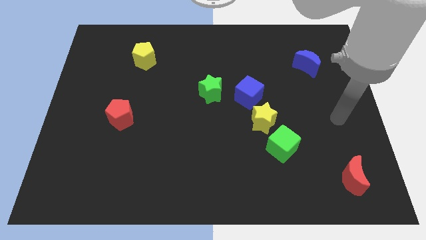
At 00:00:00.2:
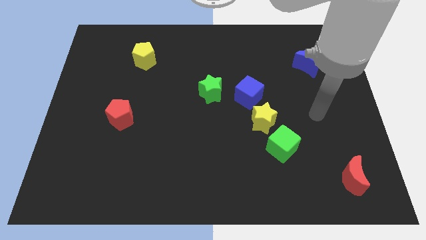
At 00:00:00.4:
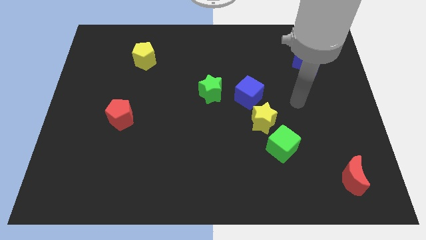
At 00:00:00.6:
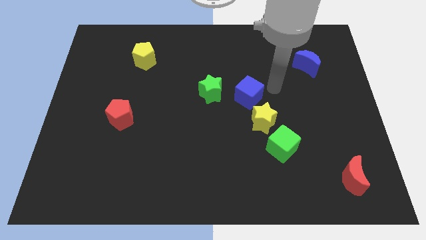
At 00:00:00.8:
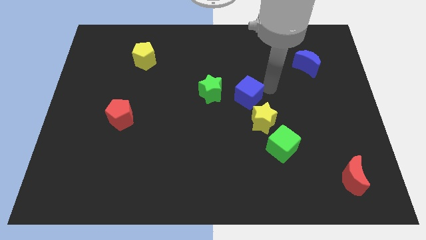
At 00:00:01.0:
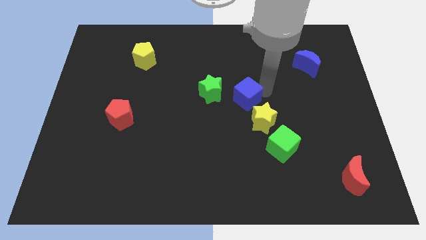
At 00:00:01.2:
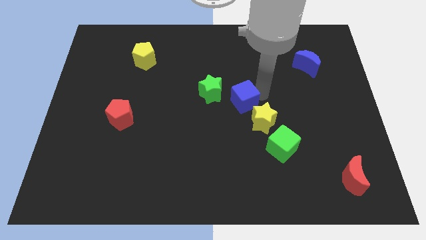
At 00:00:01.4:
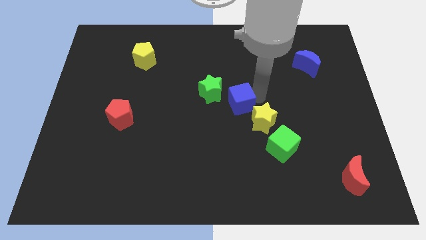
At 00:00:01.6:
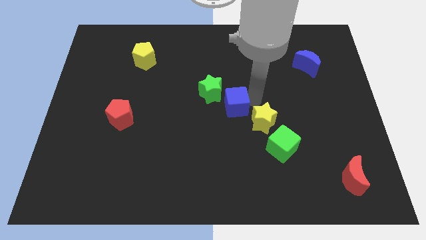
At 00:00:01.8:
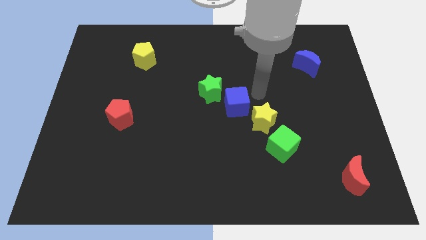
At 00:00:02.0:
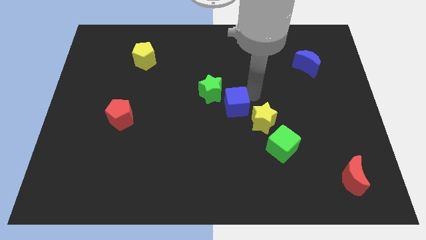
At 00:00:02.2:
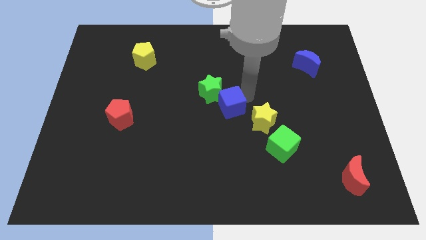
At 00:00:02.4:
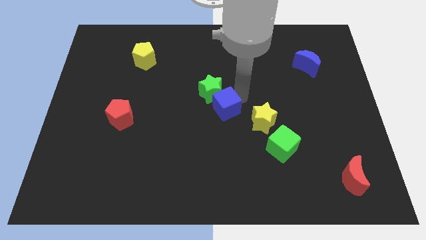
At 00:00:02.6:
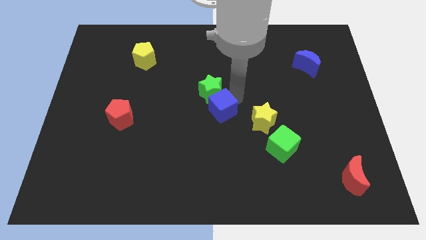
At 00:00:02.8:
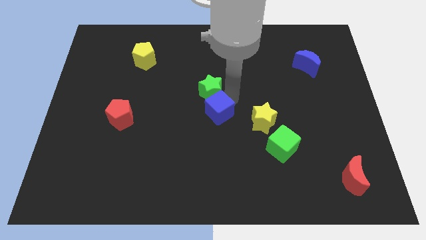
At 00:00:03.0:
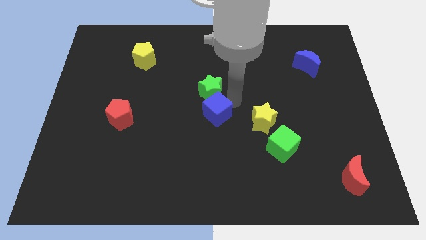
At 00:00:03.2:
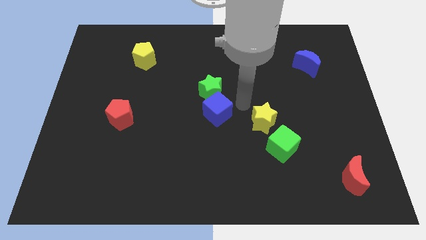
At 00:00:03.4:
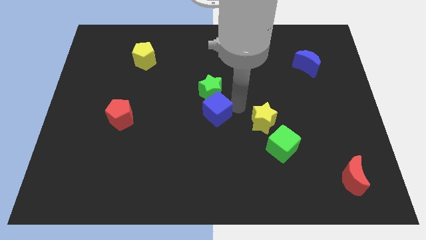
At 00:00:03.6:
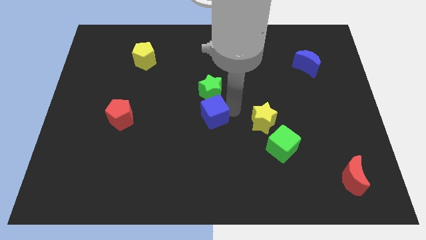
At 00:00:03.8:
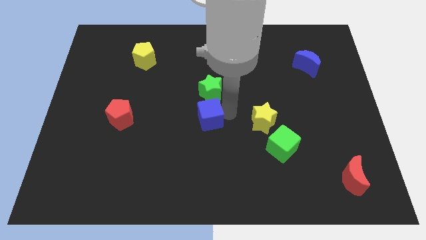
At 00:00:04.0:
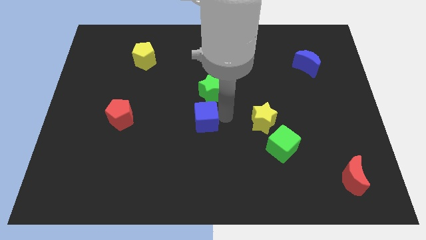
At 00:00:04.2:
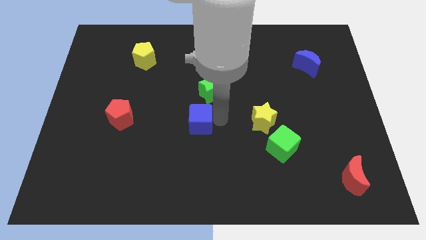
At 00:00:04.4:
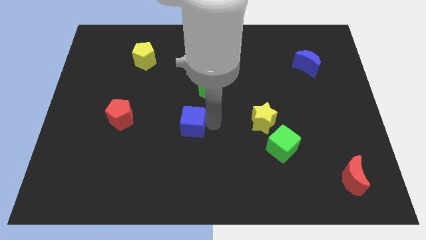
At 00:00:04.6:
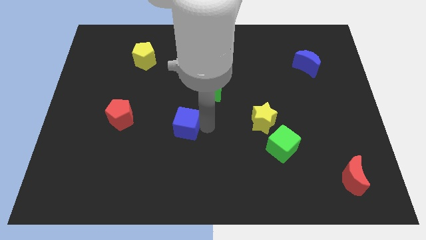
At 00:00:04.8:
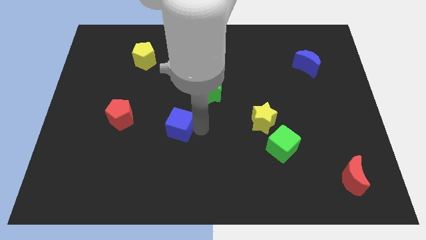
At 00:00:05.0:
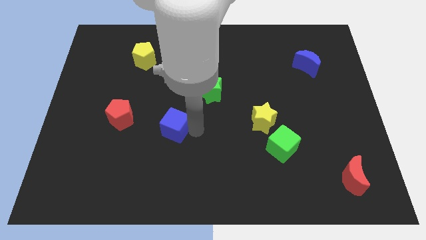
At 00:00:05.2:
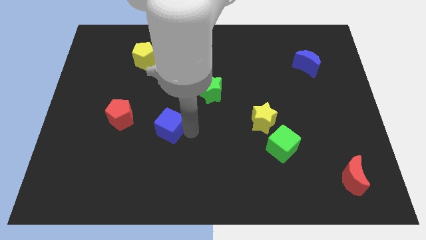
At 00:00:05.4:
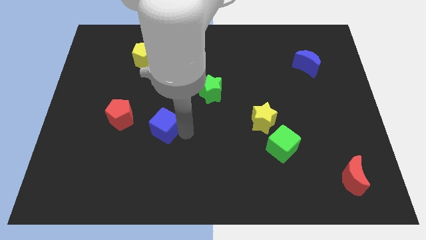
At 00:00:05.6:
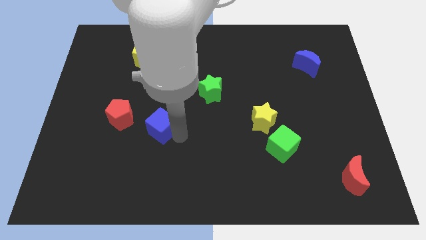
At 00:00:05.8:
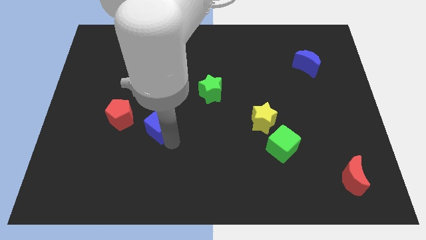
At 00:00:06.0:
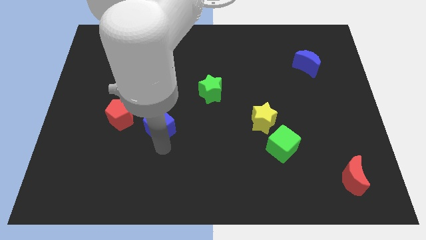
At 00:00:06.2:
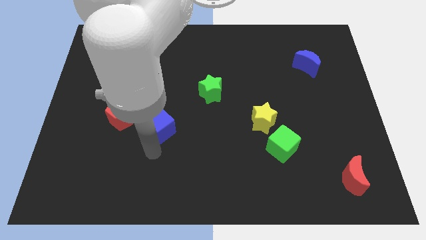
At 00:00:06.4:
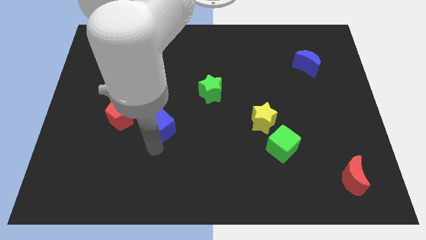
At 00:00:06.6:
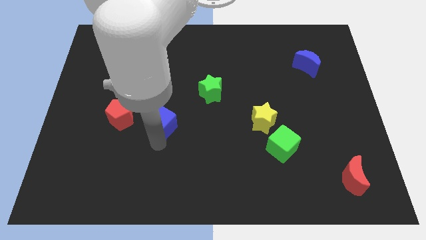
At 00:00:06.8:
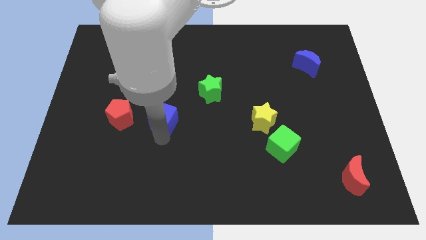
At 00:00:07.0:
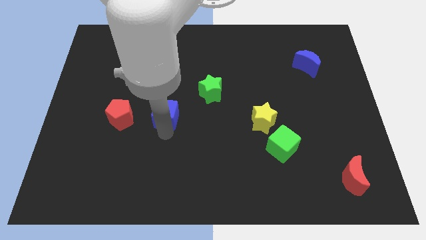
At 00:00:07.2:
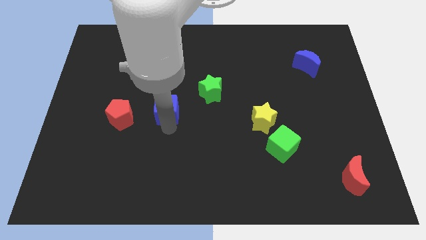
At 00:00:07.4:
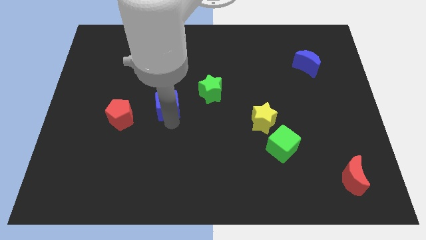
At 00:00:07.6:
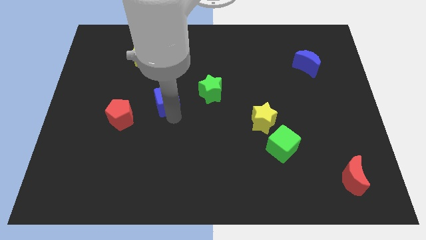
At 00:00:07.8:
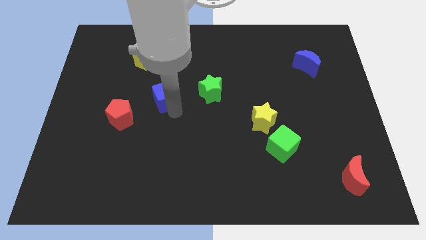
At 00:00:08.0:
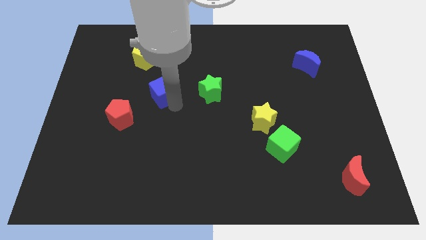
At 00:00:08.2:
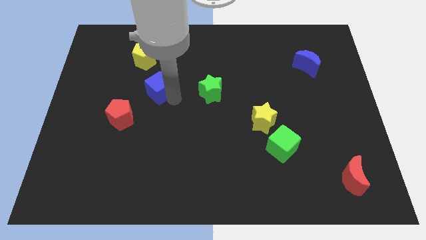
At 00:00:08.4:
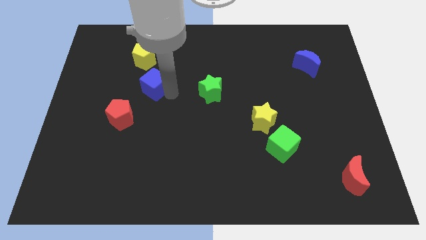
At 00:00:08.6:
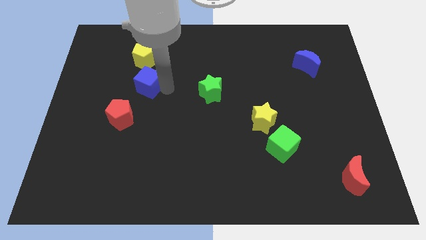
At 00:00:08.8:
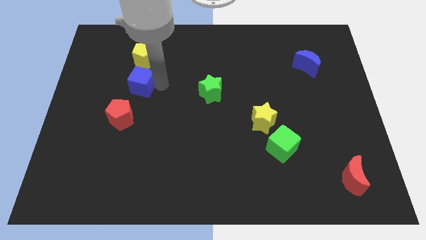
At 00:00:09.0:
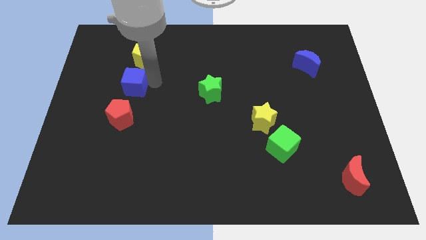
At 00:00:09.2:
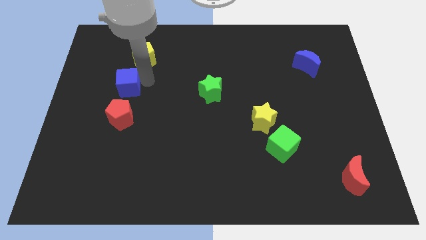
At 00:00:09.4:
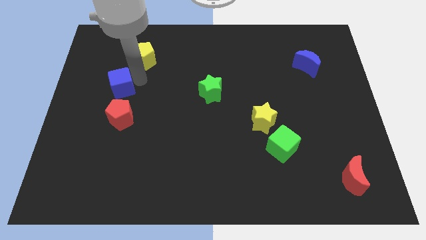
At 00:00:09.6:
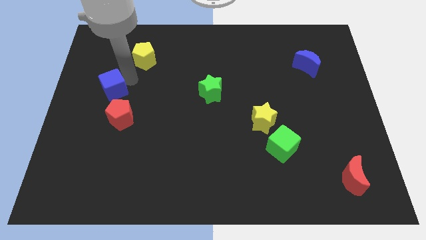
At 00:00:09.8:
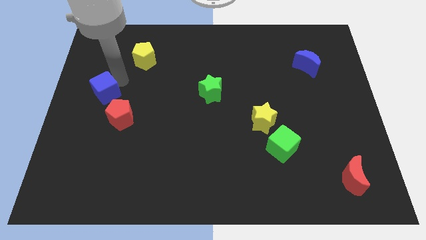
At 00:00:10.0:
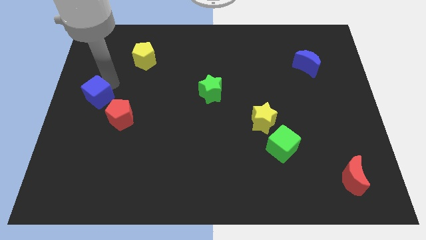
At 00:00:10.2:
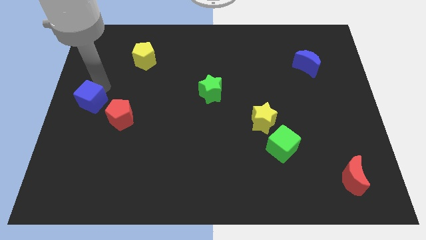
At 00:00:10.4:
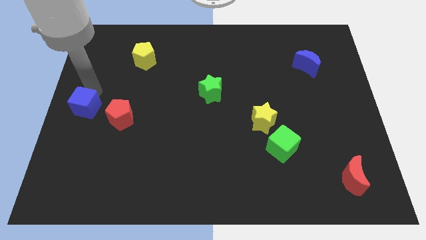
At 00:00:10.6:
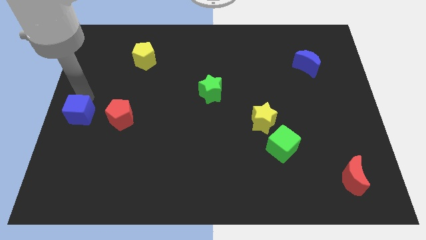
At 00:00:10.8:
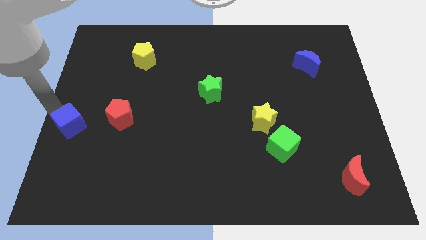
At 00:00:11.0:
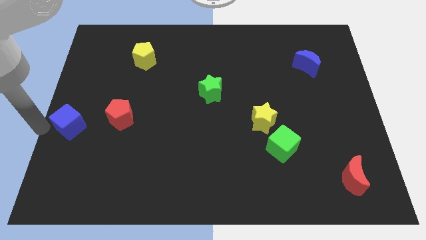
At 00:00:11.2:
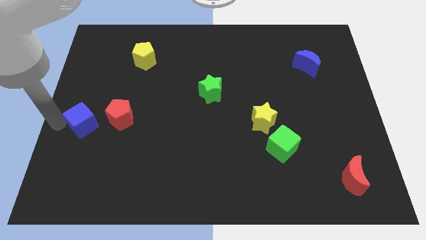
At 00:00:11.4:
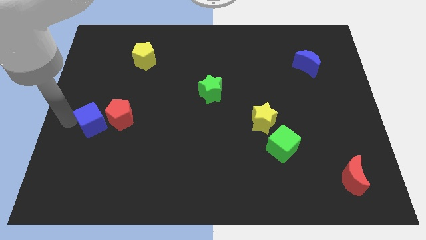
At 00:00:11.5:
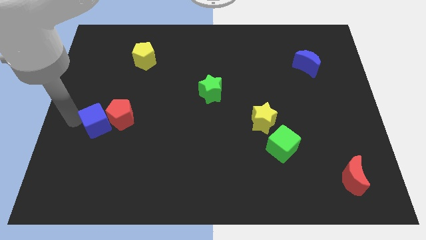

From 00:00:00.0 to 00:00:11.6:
move the blue cube close to the red pentagon

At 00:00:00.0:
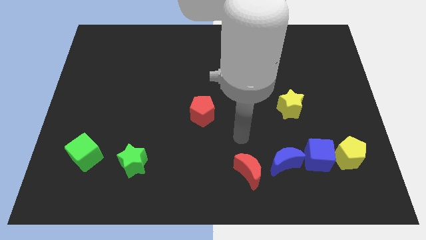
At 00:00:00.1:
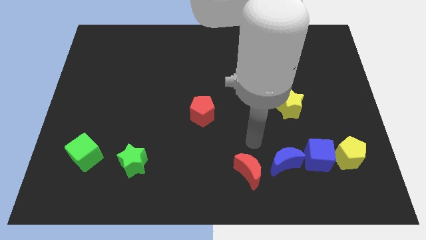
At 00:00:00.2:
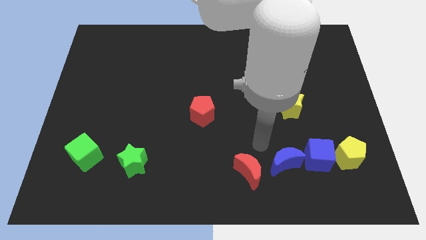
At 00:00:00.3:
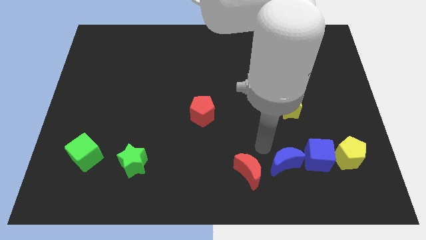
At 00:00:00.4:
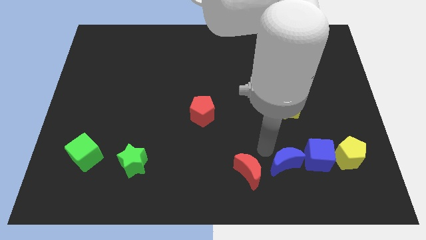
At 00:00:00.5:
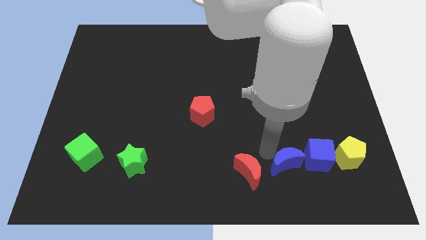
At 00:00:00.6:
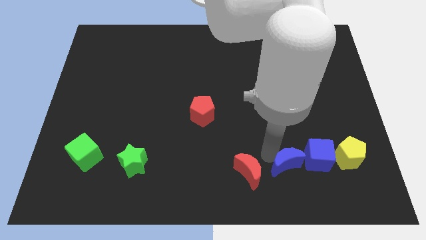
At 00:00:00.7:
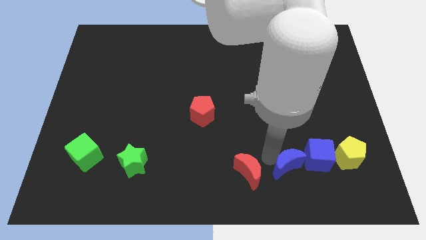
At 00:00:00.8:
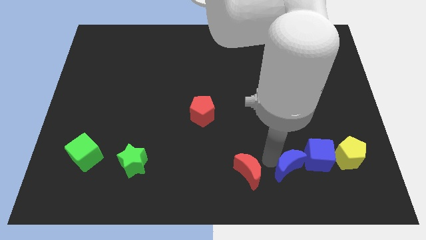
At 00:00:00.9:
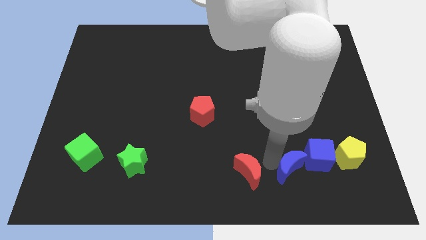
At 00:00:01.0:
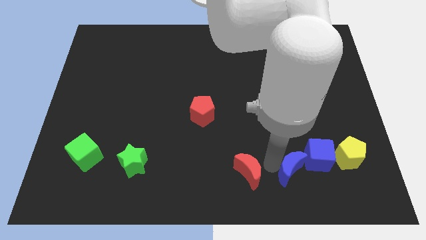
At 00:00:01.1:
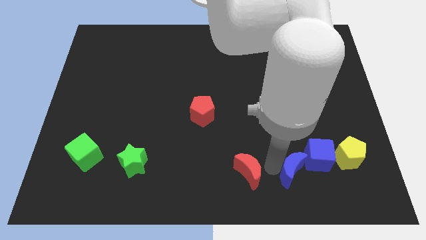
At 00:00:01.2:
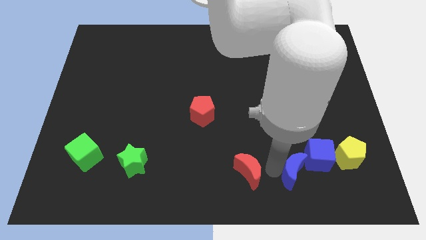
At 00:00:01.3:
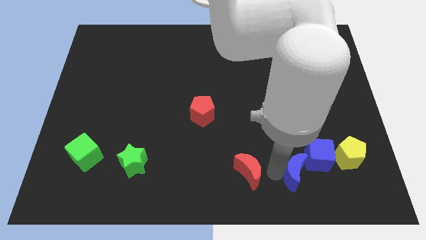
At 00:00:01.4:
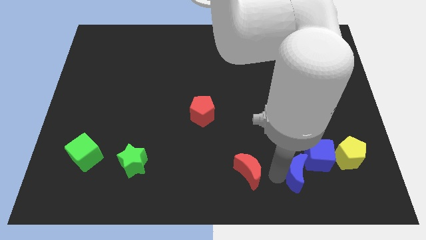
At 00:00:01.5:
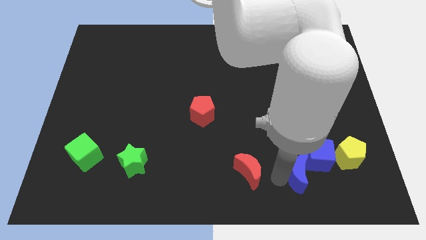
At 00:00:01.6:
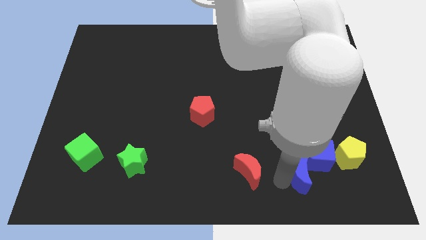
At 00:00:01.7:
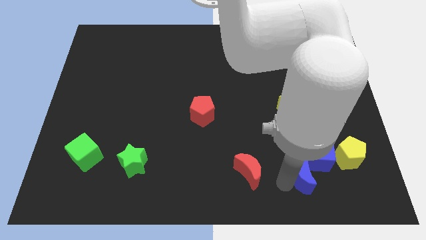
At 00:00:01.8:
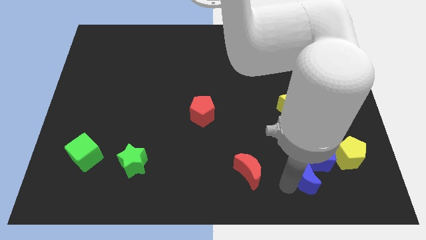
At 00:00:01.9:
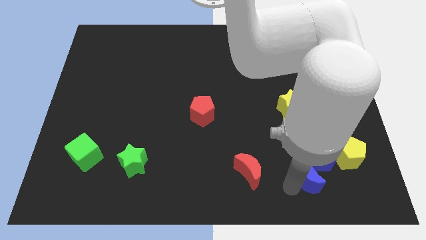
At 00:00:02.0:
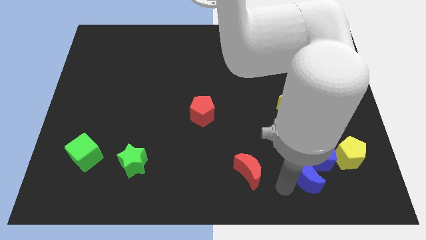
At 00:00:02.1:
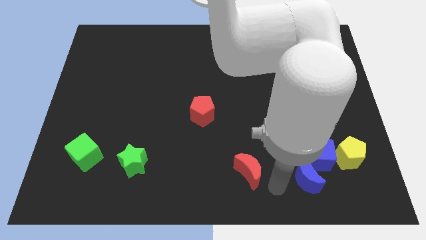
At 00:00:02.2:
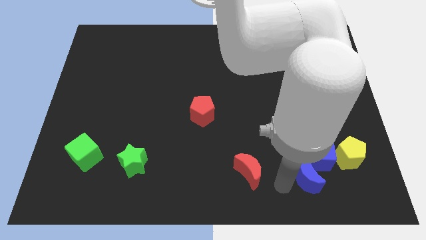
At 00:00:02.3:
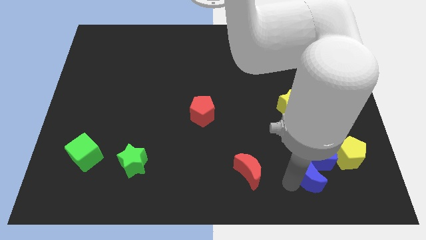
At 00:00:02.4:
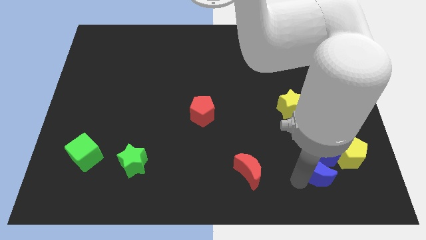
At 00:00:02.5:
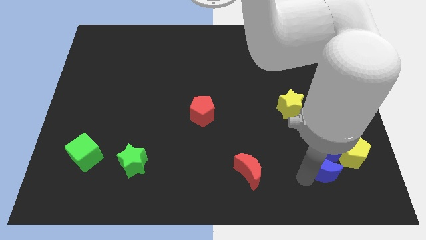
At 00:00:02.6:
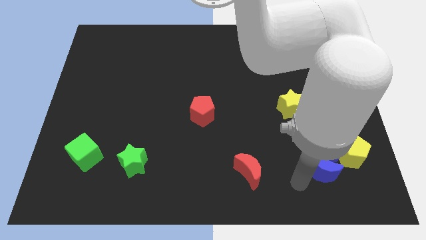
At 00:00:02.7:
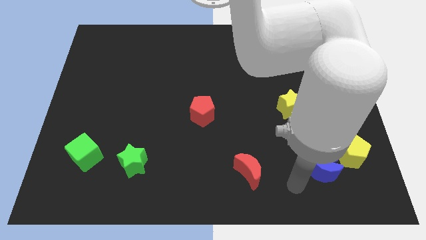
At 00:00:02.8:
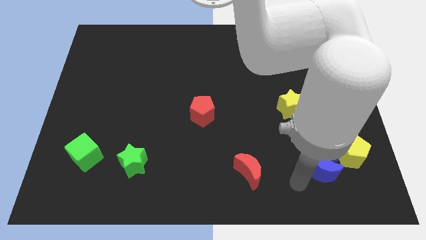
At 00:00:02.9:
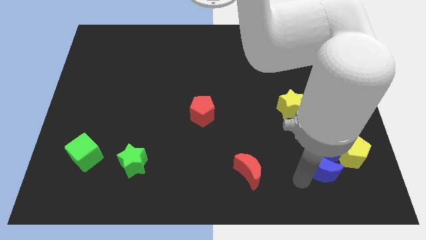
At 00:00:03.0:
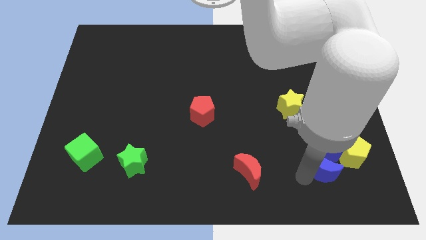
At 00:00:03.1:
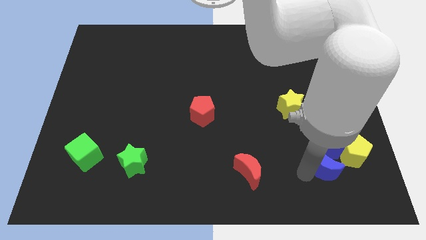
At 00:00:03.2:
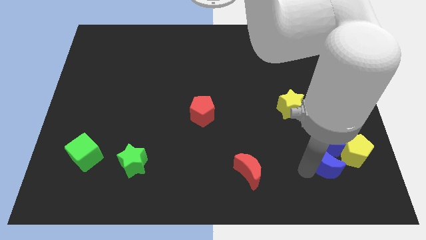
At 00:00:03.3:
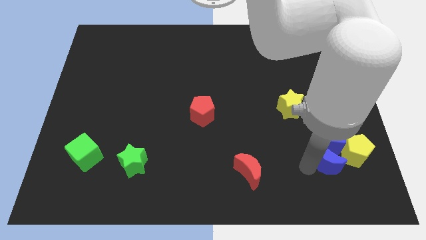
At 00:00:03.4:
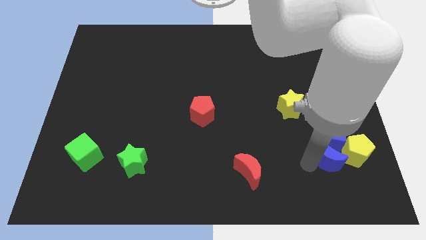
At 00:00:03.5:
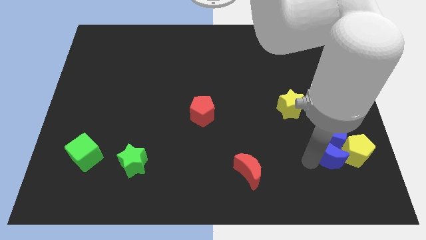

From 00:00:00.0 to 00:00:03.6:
put the blue moon next to the yellow pentagon
